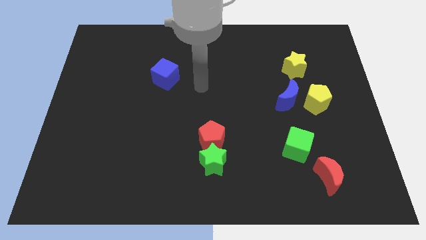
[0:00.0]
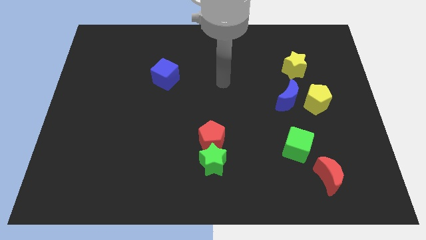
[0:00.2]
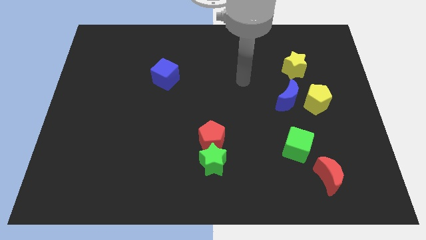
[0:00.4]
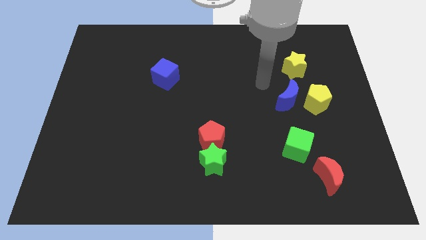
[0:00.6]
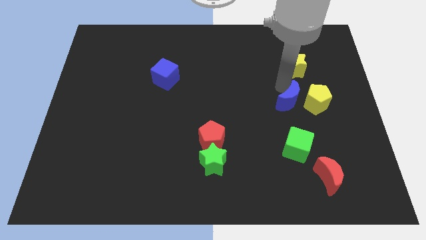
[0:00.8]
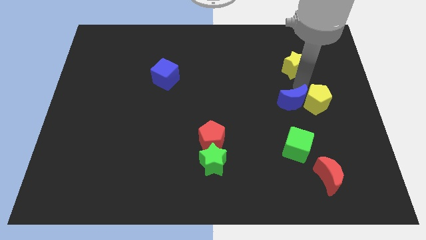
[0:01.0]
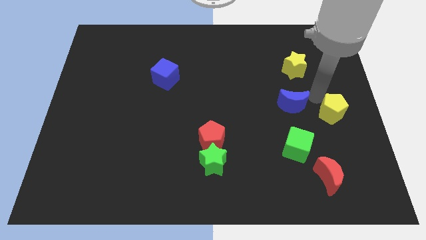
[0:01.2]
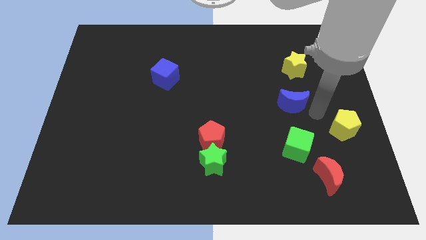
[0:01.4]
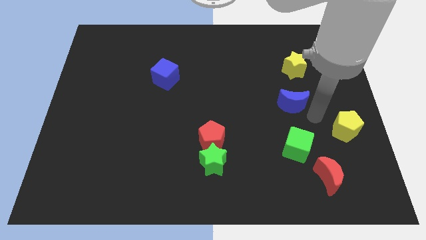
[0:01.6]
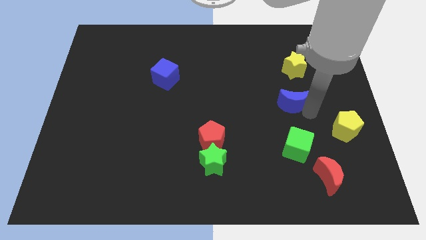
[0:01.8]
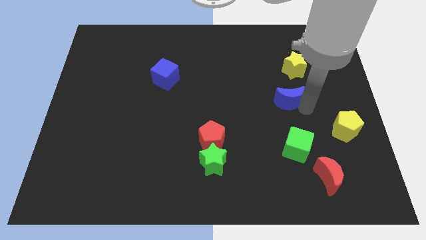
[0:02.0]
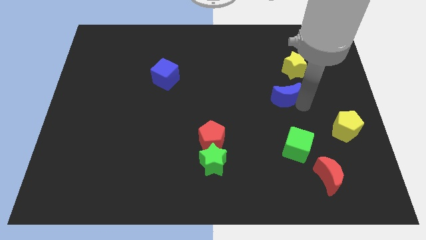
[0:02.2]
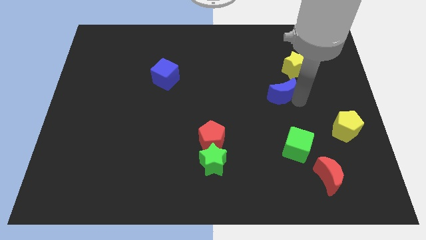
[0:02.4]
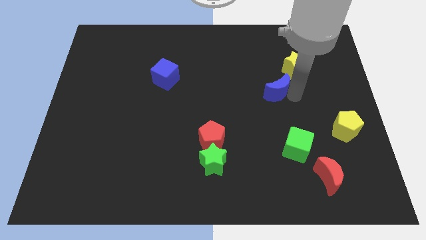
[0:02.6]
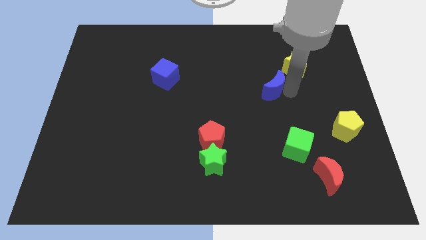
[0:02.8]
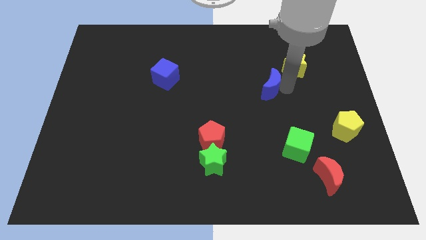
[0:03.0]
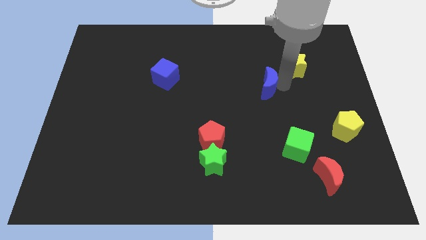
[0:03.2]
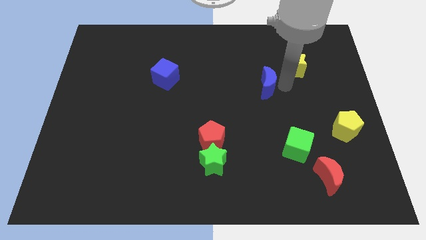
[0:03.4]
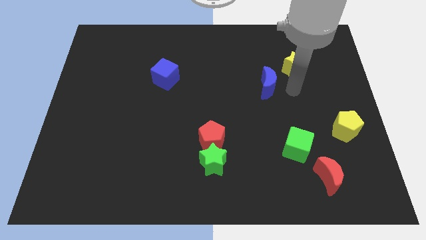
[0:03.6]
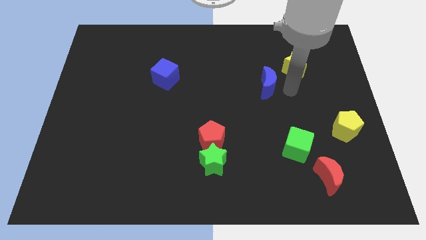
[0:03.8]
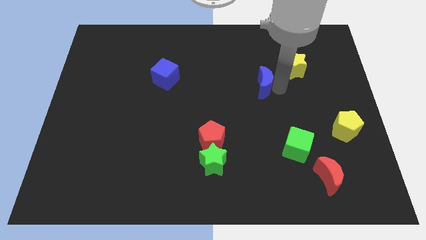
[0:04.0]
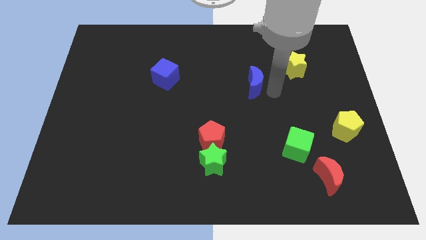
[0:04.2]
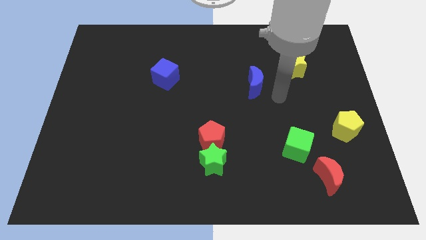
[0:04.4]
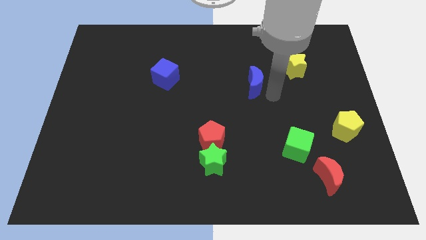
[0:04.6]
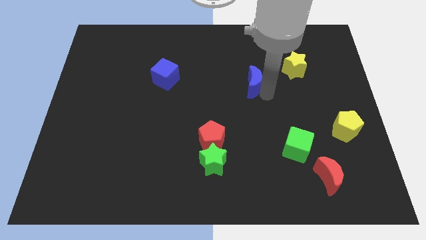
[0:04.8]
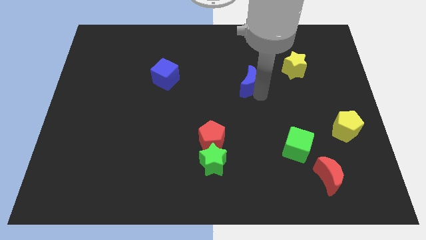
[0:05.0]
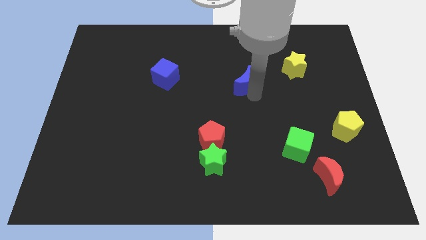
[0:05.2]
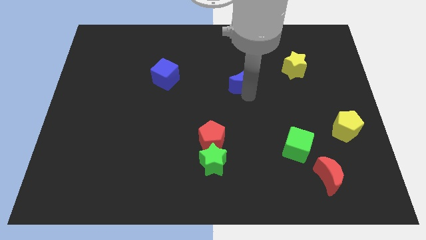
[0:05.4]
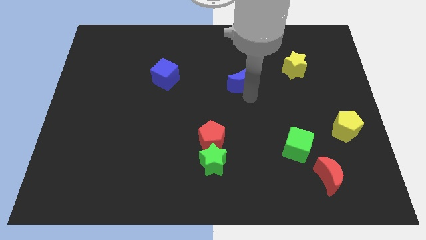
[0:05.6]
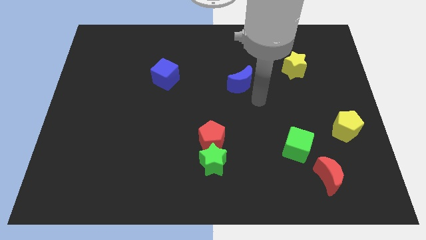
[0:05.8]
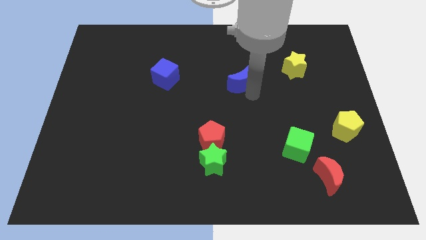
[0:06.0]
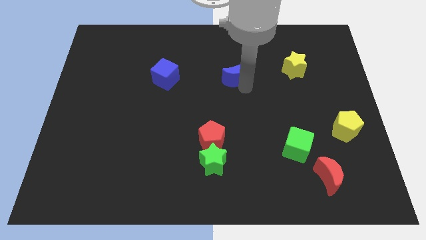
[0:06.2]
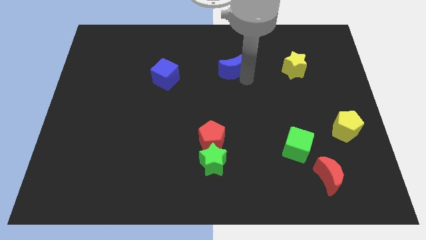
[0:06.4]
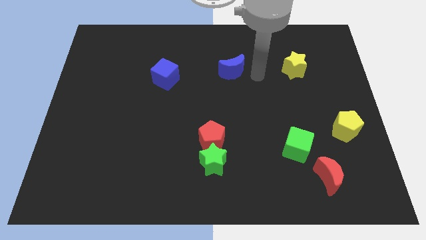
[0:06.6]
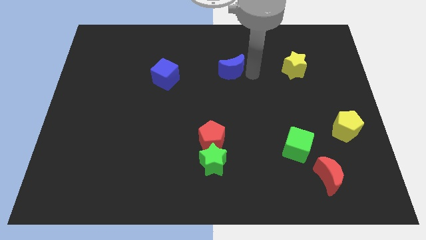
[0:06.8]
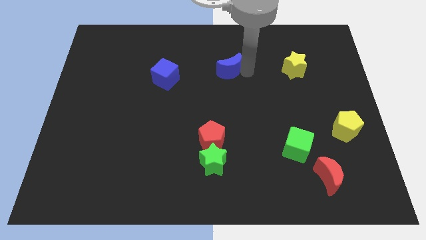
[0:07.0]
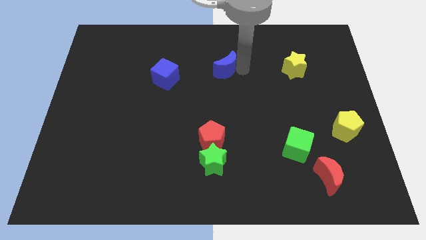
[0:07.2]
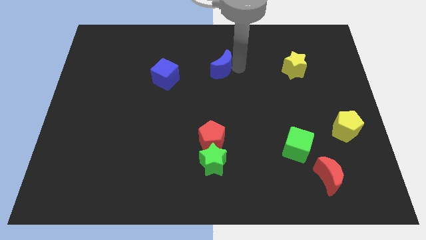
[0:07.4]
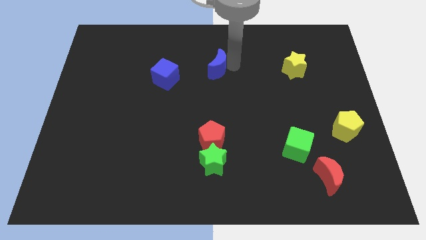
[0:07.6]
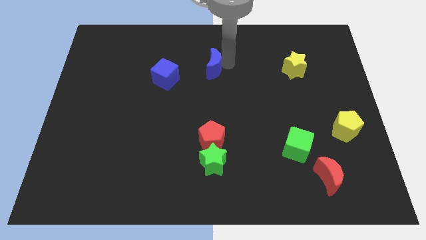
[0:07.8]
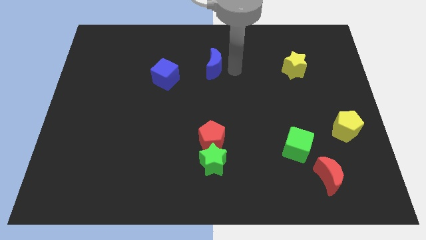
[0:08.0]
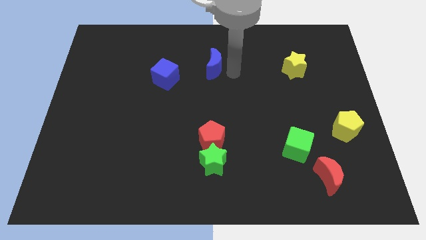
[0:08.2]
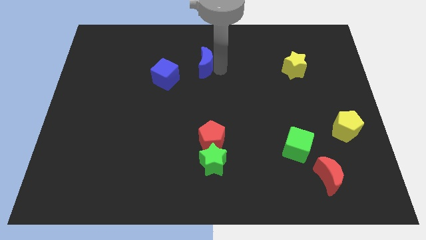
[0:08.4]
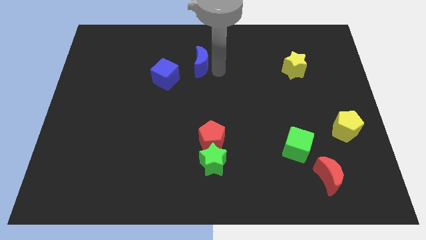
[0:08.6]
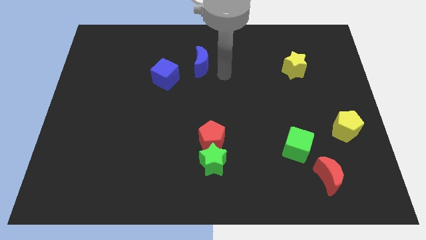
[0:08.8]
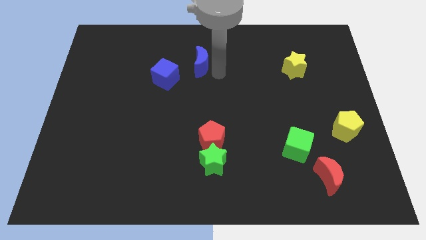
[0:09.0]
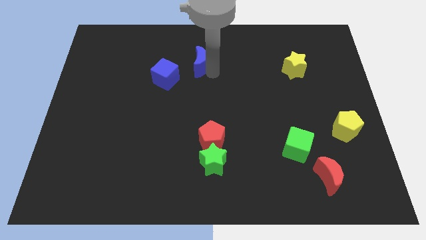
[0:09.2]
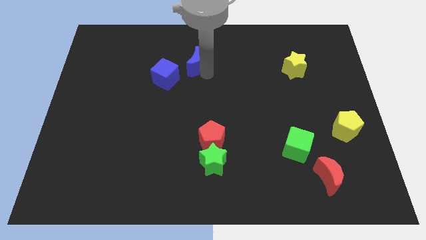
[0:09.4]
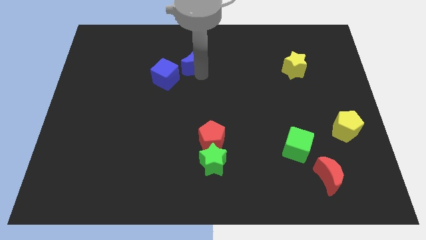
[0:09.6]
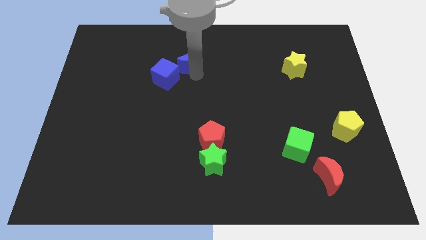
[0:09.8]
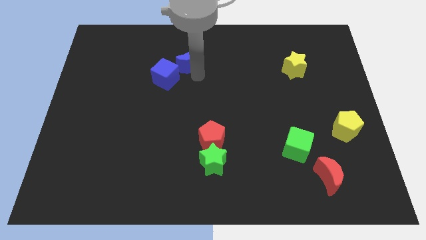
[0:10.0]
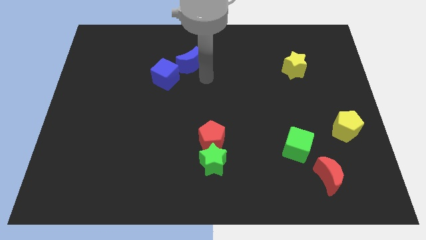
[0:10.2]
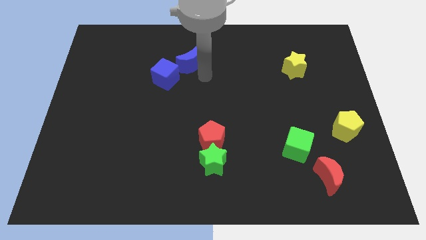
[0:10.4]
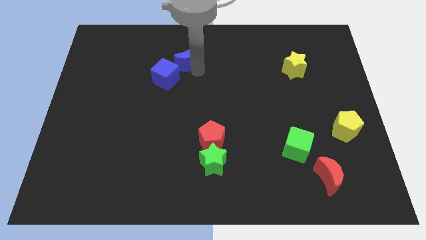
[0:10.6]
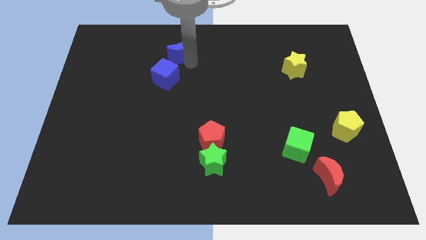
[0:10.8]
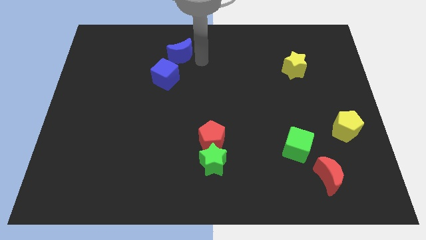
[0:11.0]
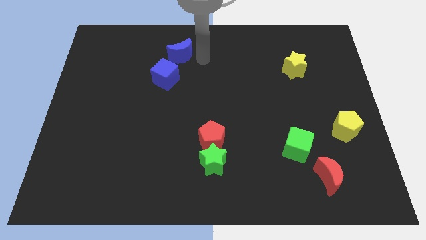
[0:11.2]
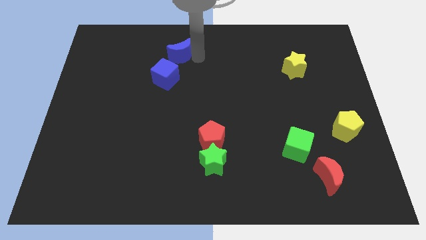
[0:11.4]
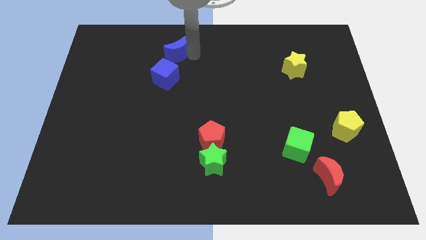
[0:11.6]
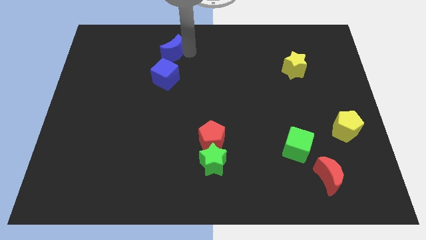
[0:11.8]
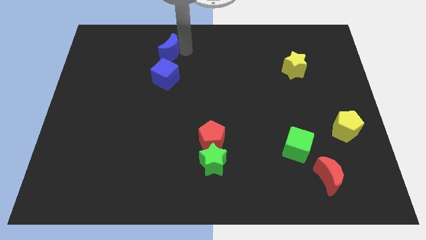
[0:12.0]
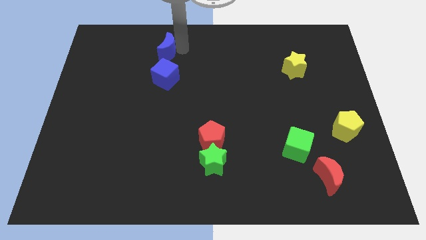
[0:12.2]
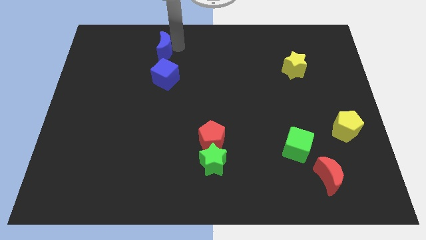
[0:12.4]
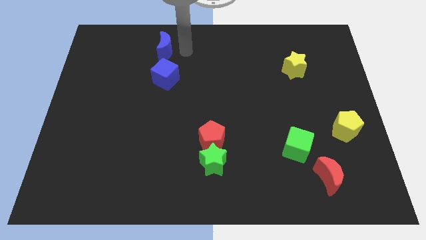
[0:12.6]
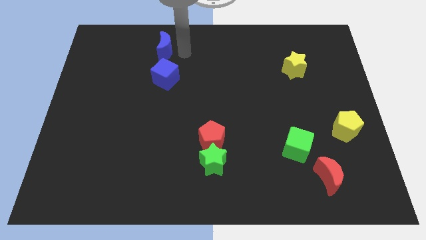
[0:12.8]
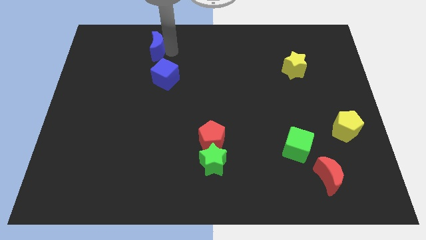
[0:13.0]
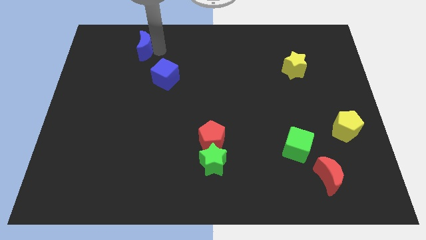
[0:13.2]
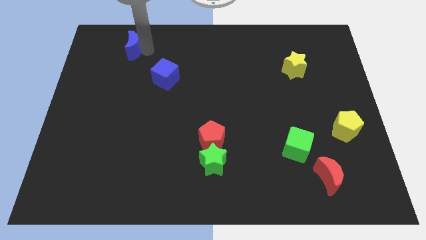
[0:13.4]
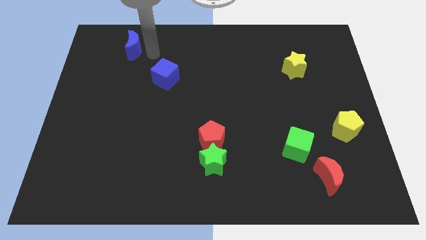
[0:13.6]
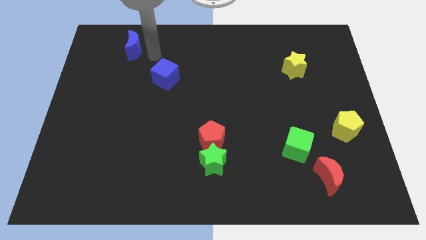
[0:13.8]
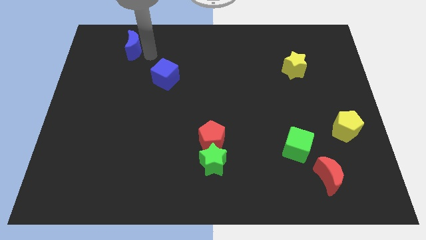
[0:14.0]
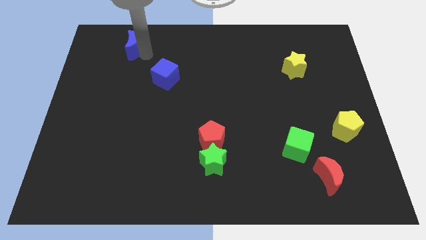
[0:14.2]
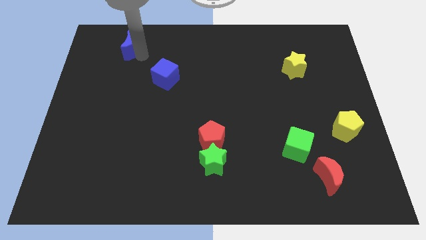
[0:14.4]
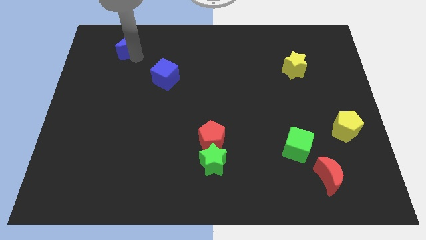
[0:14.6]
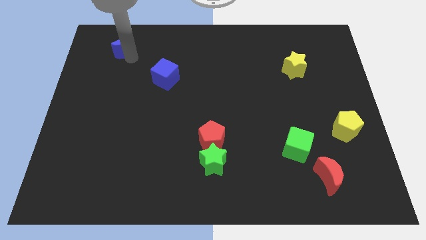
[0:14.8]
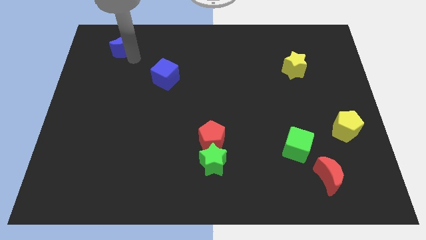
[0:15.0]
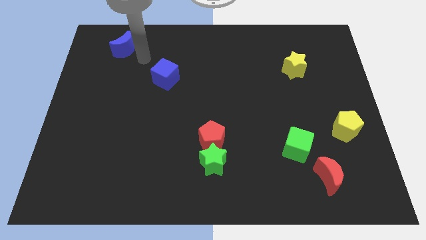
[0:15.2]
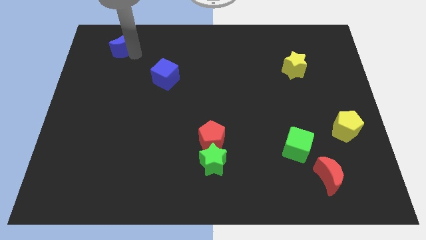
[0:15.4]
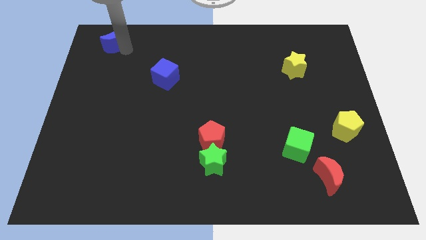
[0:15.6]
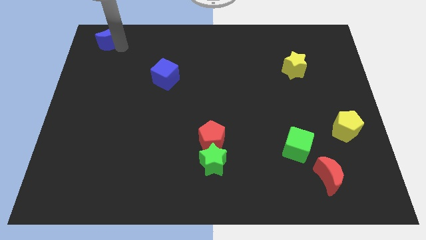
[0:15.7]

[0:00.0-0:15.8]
move the blue moon to the top left
